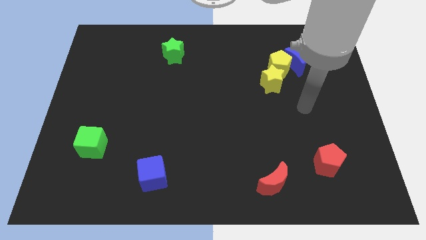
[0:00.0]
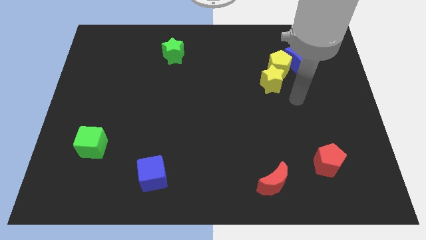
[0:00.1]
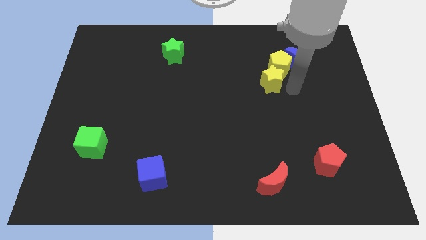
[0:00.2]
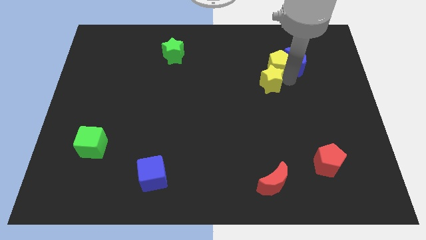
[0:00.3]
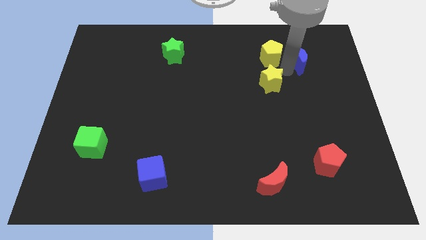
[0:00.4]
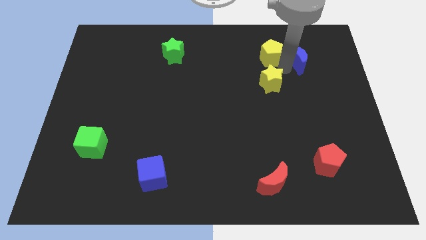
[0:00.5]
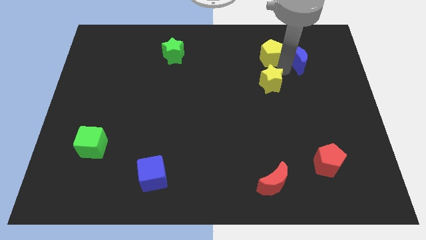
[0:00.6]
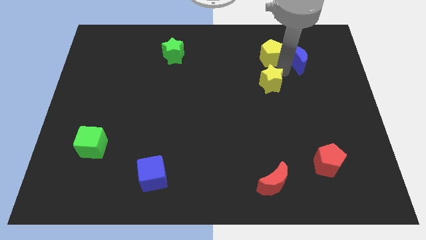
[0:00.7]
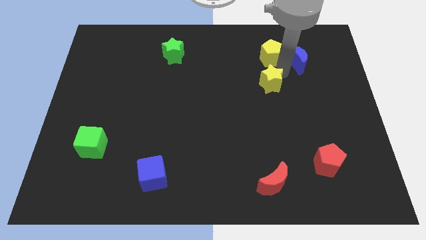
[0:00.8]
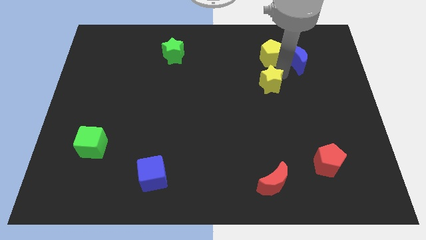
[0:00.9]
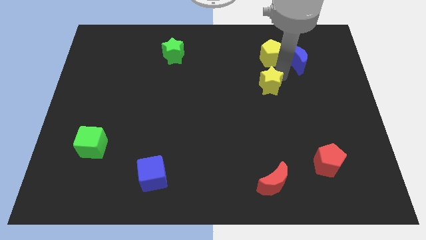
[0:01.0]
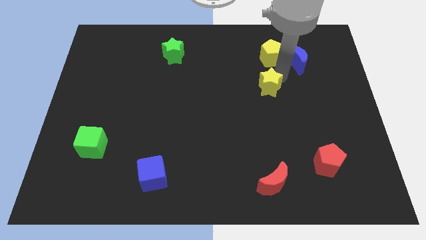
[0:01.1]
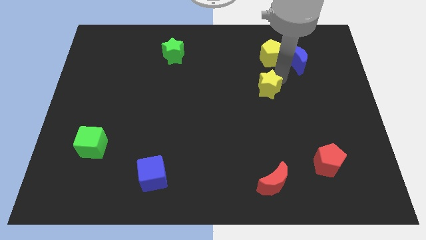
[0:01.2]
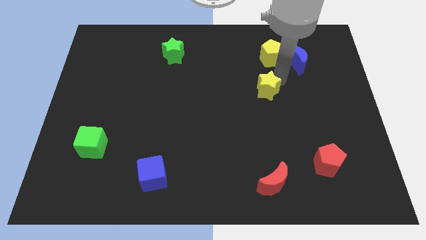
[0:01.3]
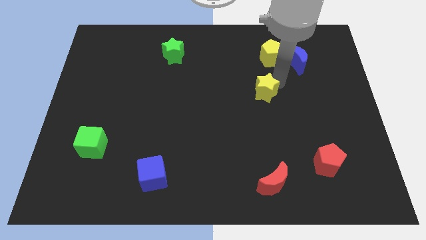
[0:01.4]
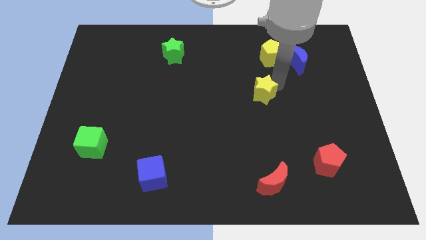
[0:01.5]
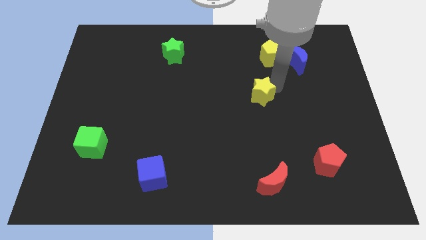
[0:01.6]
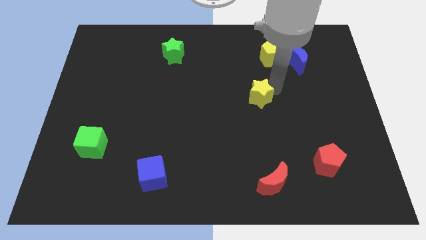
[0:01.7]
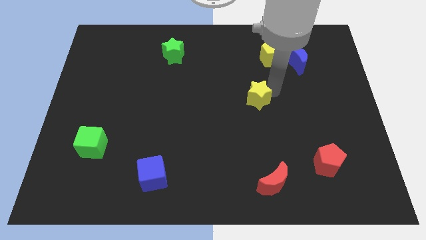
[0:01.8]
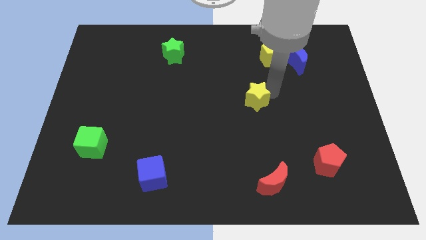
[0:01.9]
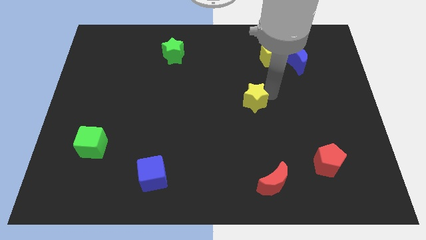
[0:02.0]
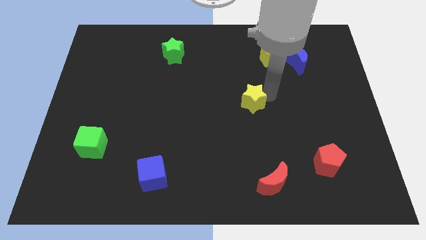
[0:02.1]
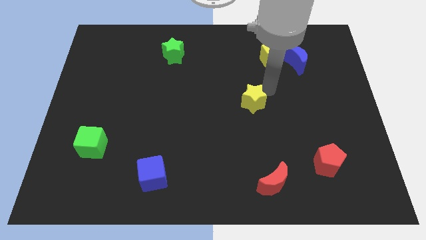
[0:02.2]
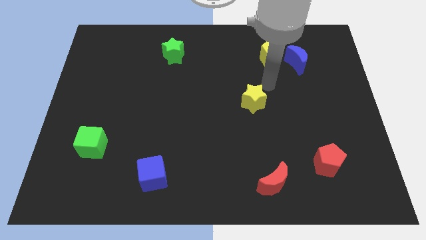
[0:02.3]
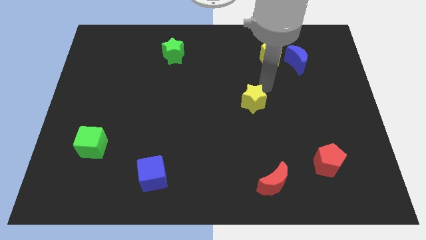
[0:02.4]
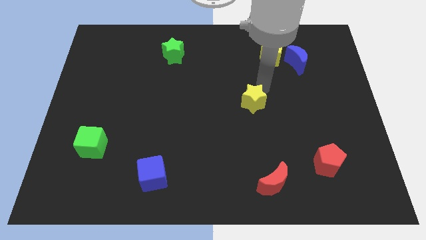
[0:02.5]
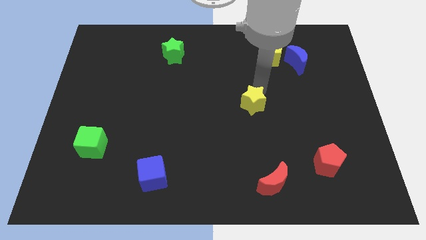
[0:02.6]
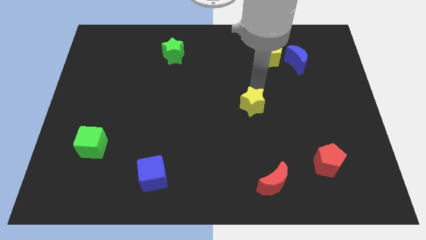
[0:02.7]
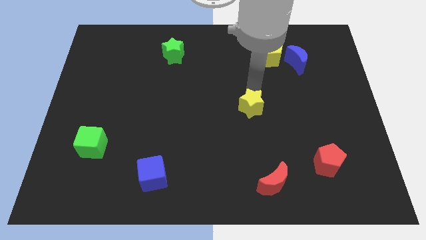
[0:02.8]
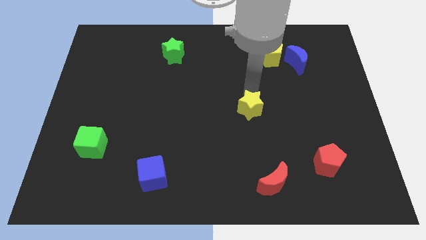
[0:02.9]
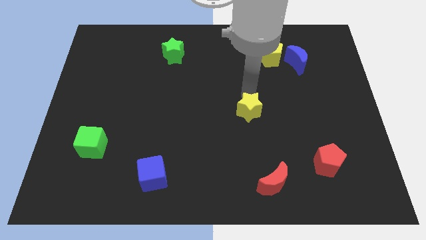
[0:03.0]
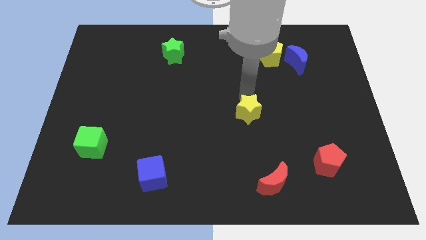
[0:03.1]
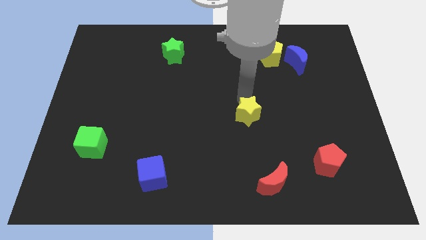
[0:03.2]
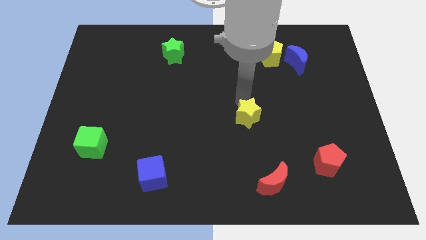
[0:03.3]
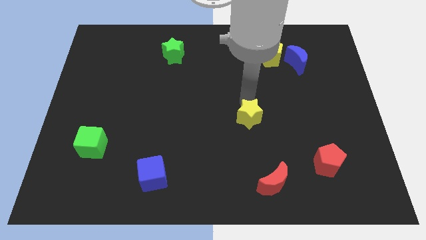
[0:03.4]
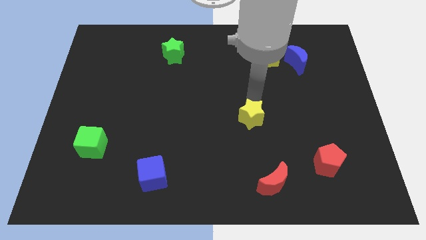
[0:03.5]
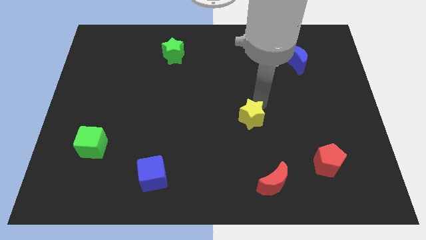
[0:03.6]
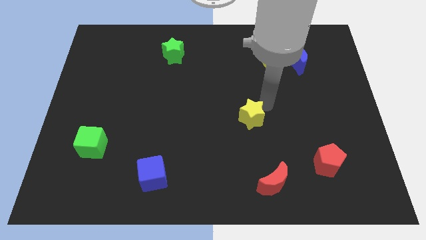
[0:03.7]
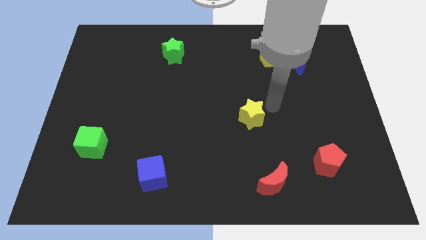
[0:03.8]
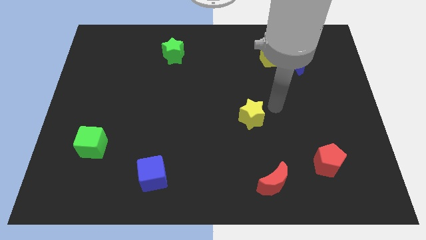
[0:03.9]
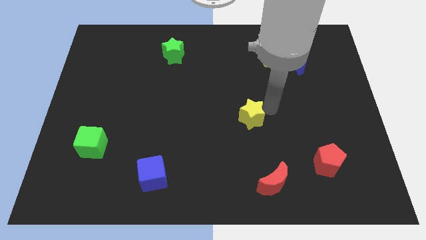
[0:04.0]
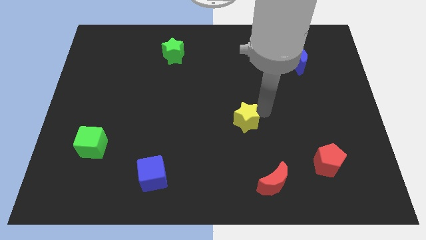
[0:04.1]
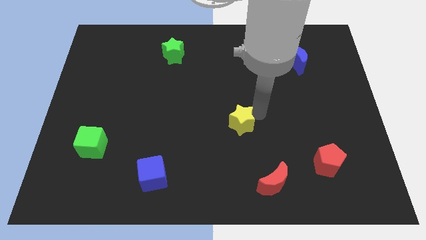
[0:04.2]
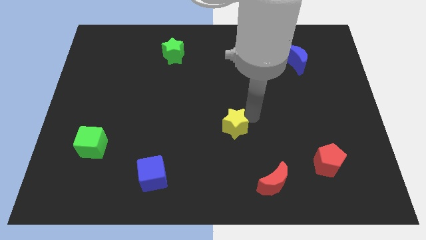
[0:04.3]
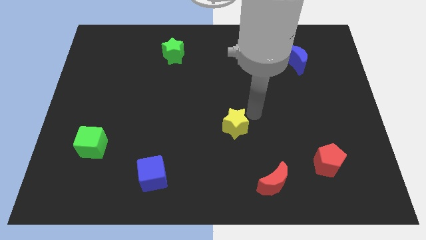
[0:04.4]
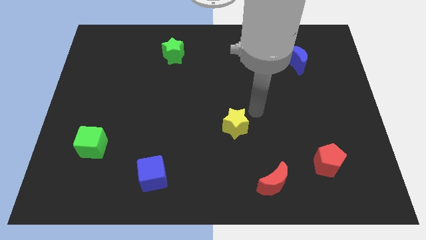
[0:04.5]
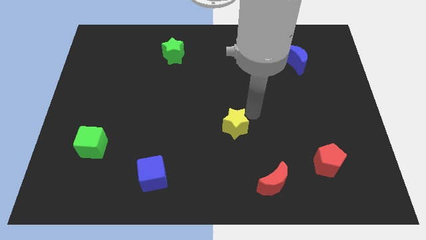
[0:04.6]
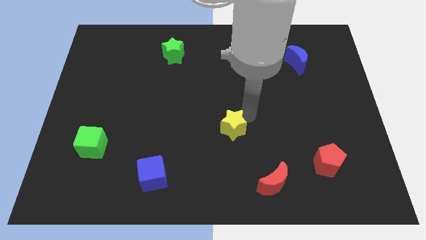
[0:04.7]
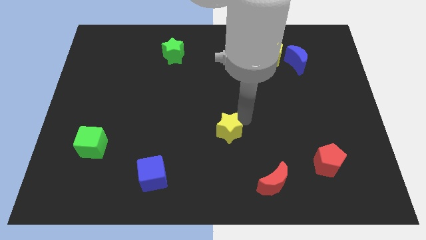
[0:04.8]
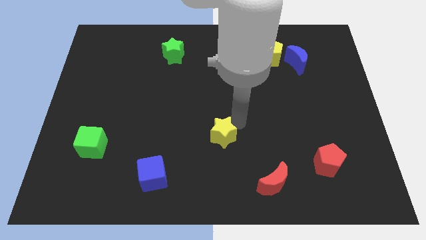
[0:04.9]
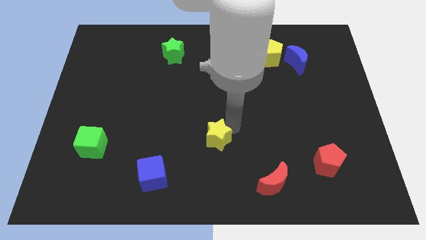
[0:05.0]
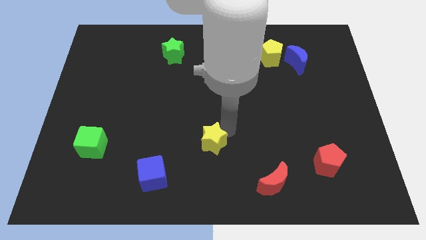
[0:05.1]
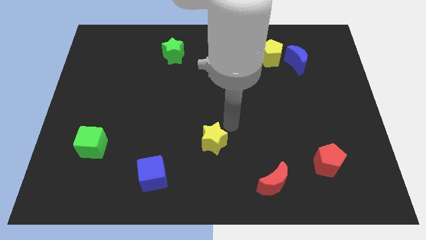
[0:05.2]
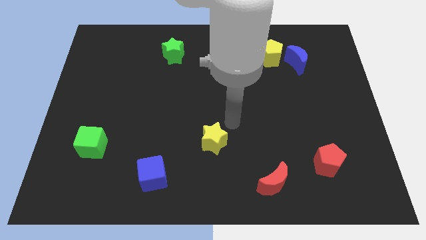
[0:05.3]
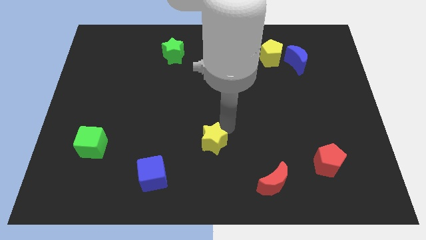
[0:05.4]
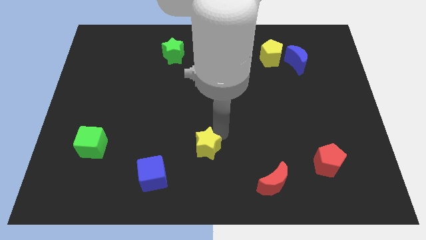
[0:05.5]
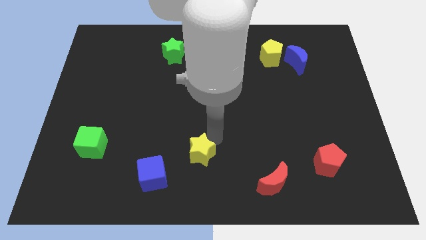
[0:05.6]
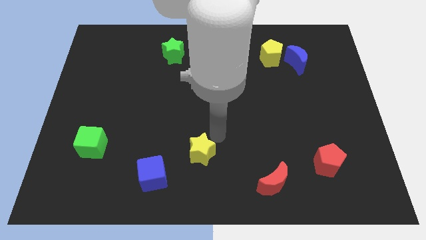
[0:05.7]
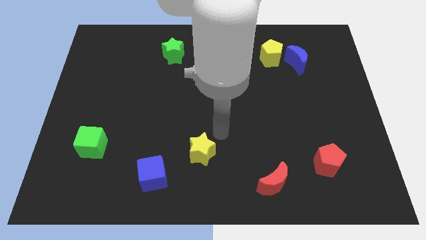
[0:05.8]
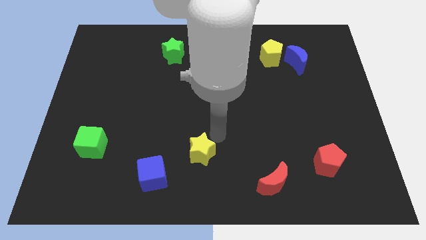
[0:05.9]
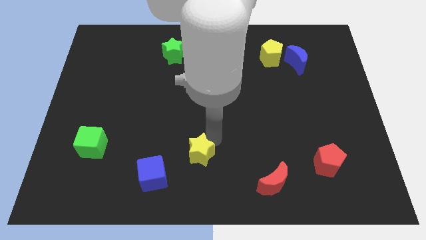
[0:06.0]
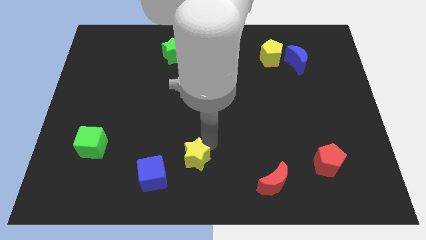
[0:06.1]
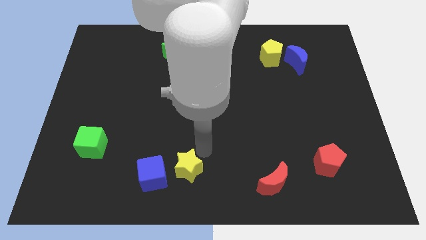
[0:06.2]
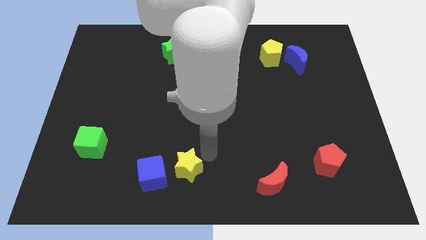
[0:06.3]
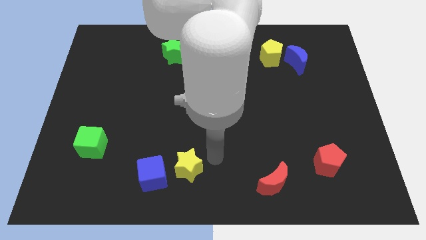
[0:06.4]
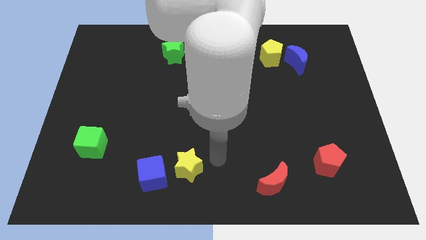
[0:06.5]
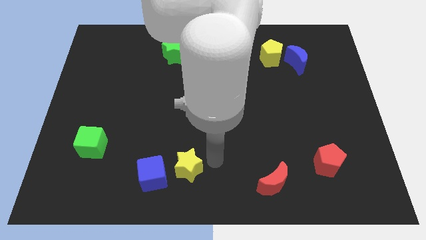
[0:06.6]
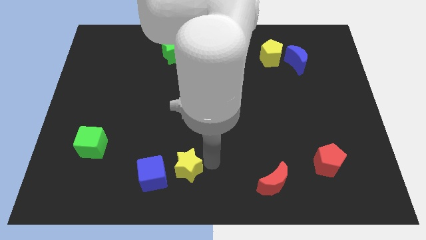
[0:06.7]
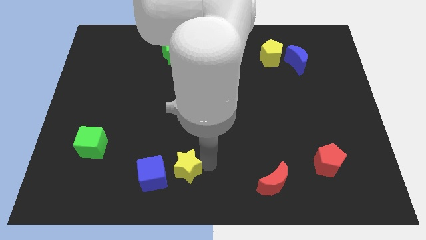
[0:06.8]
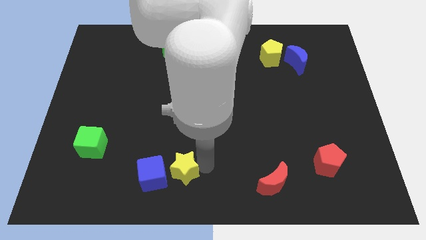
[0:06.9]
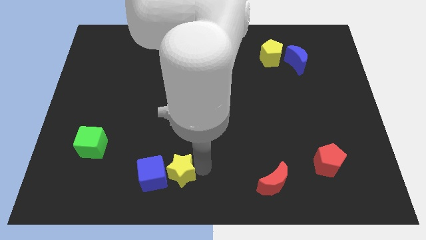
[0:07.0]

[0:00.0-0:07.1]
move the yellow star next to the blue cube
